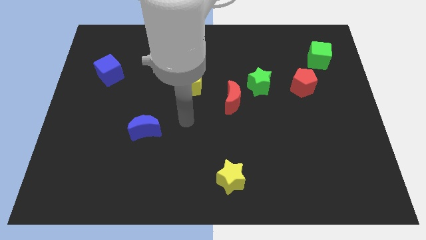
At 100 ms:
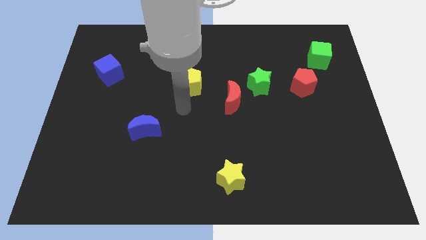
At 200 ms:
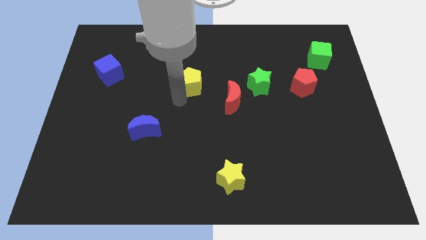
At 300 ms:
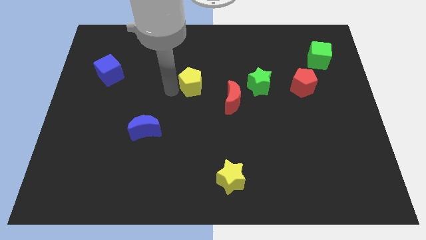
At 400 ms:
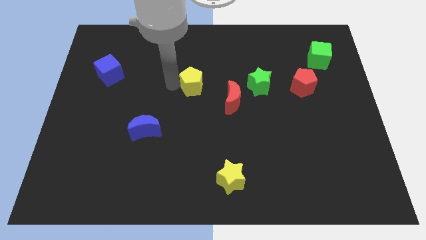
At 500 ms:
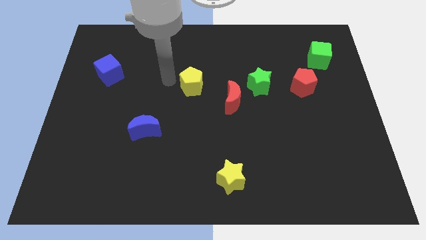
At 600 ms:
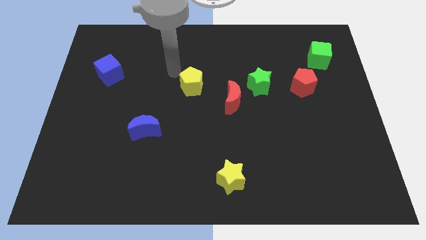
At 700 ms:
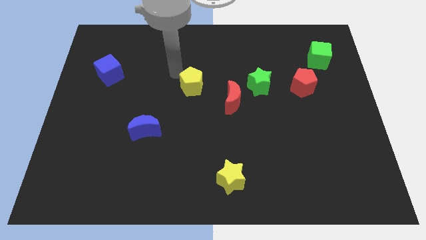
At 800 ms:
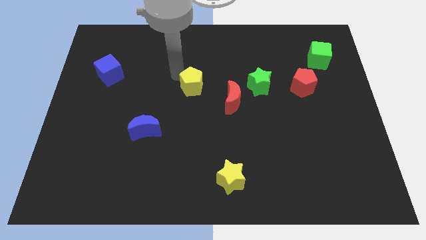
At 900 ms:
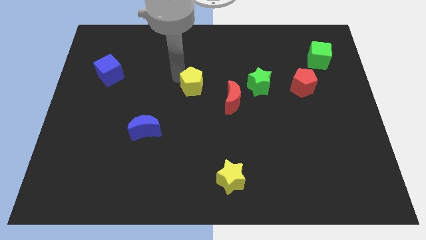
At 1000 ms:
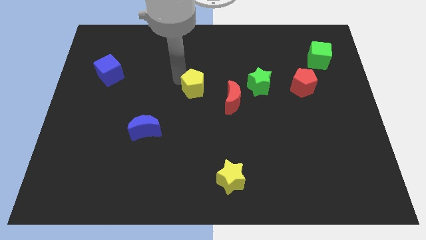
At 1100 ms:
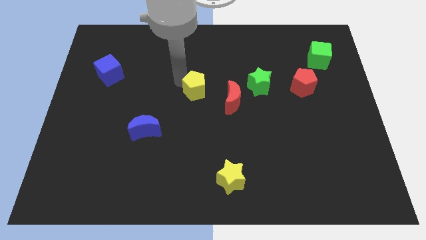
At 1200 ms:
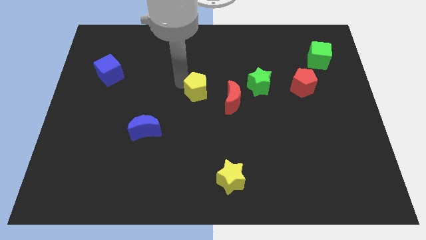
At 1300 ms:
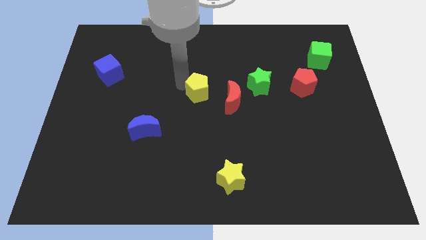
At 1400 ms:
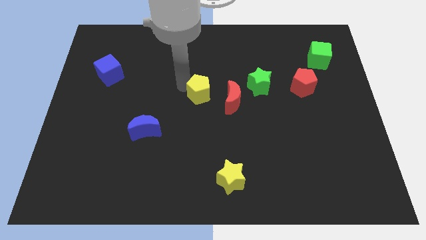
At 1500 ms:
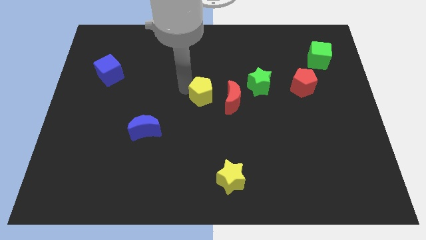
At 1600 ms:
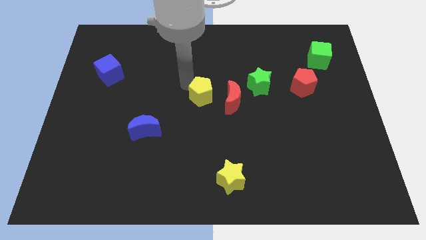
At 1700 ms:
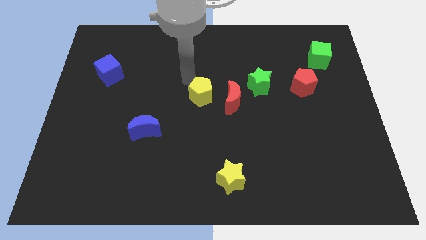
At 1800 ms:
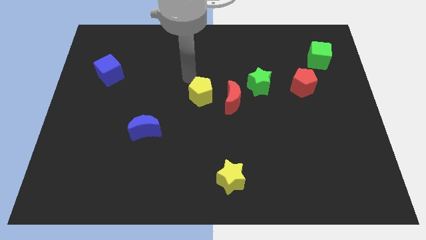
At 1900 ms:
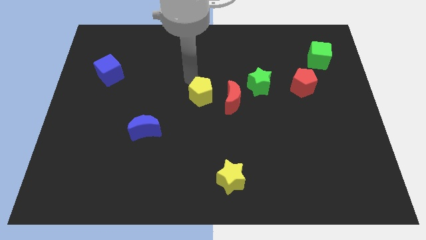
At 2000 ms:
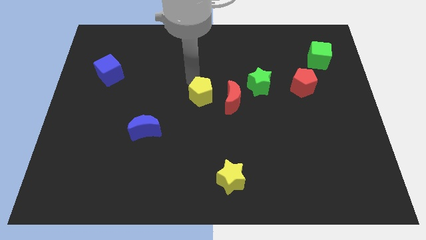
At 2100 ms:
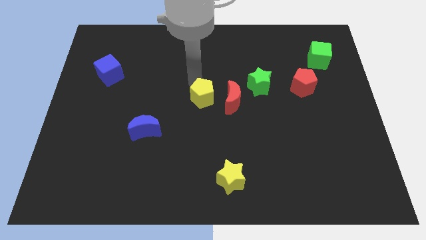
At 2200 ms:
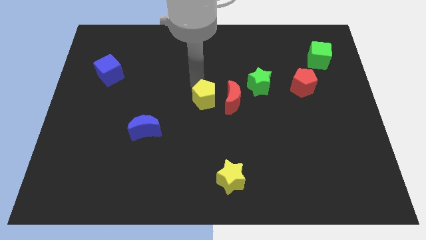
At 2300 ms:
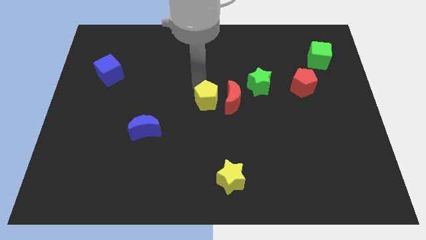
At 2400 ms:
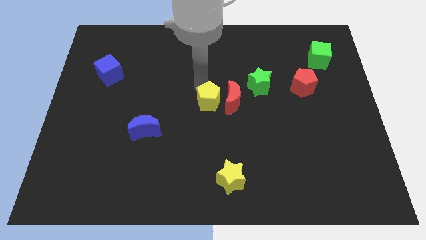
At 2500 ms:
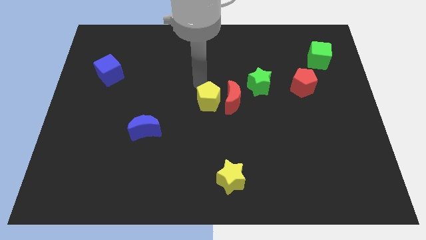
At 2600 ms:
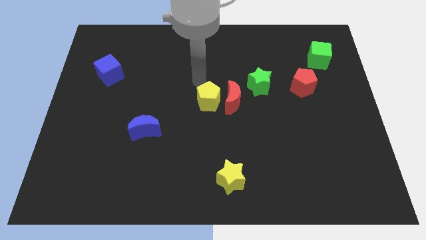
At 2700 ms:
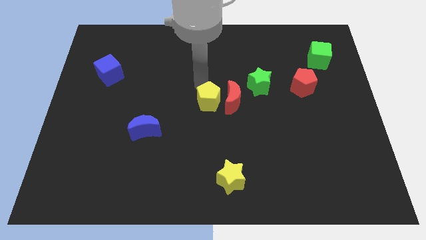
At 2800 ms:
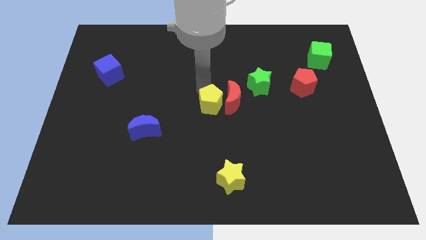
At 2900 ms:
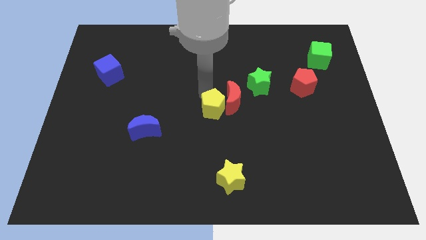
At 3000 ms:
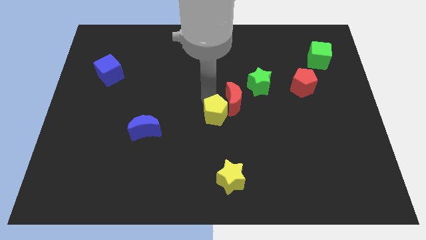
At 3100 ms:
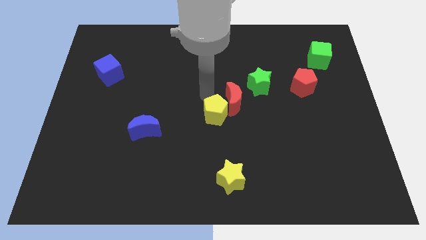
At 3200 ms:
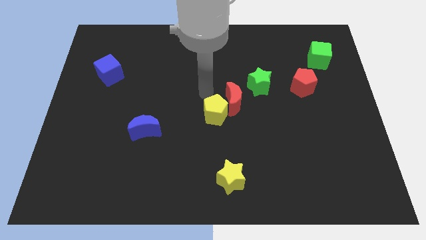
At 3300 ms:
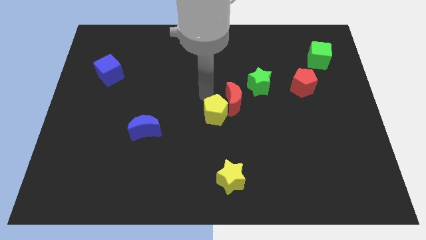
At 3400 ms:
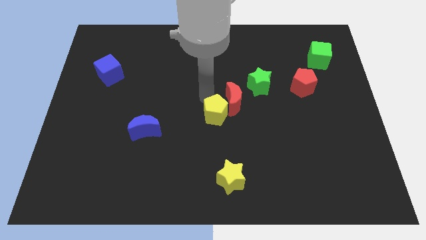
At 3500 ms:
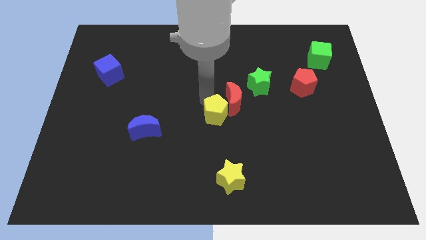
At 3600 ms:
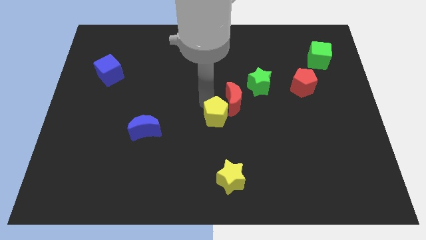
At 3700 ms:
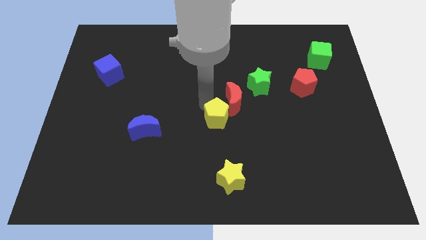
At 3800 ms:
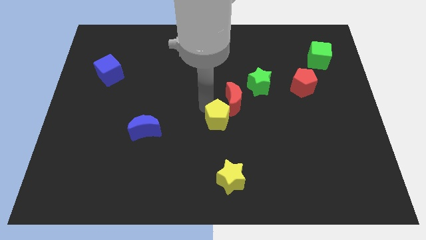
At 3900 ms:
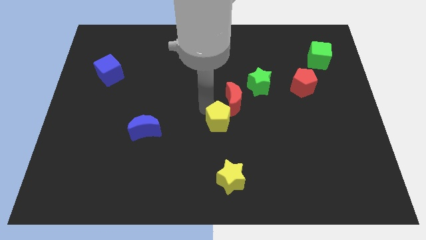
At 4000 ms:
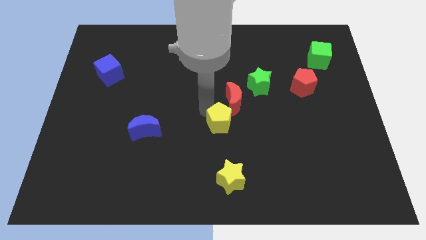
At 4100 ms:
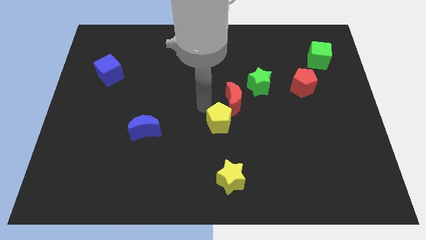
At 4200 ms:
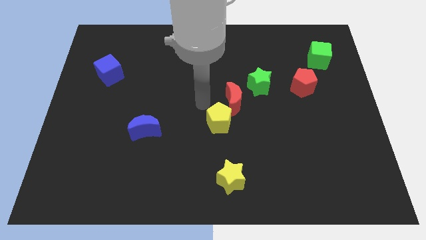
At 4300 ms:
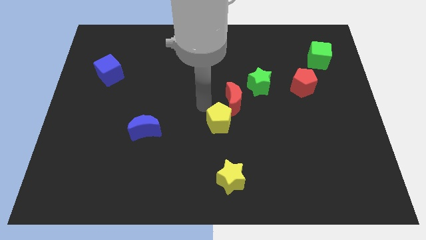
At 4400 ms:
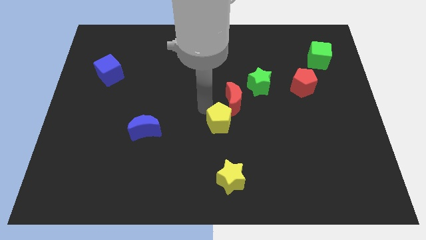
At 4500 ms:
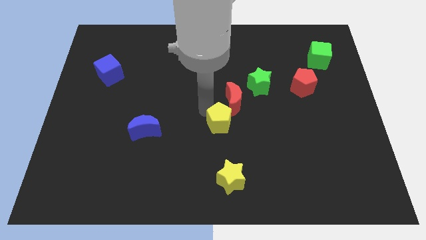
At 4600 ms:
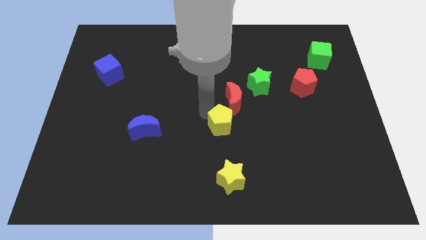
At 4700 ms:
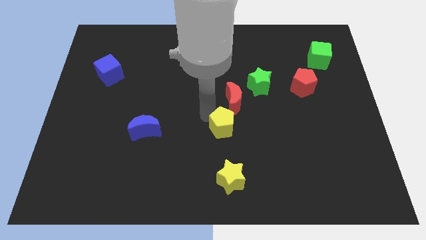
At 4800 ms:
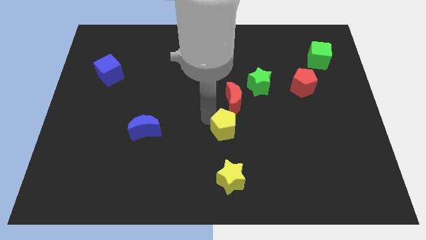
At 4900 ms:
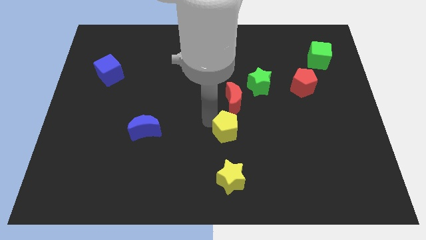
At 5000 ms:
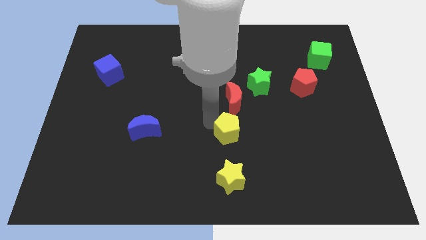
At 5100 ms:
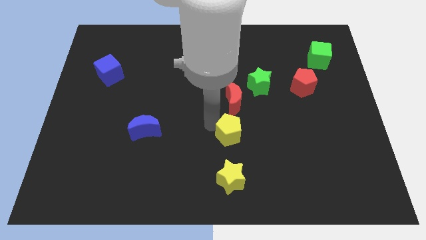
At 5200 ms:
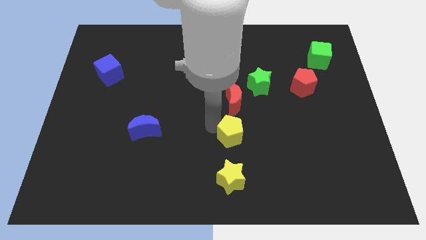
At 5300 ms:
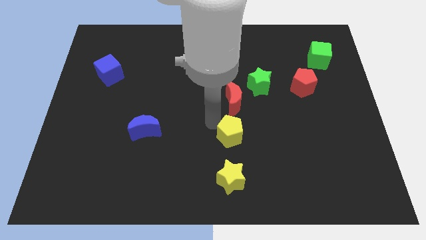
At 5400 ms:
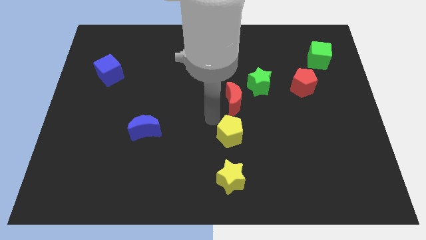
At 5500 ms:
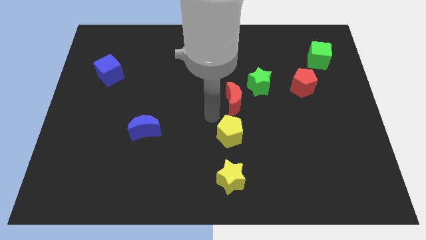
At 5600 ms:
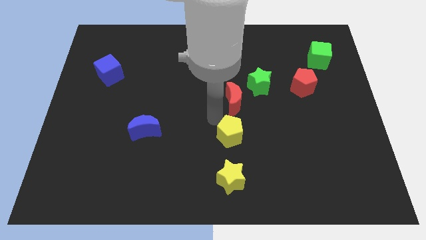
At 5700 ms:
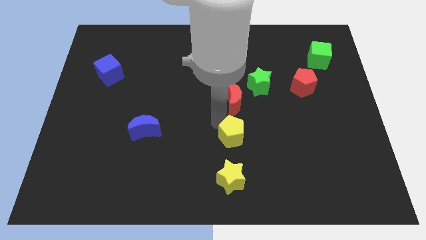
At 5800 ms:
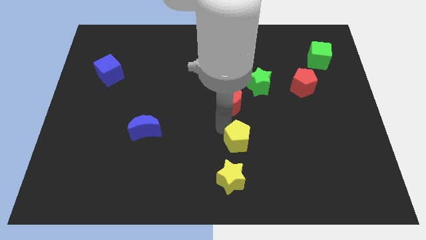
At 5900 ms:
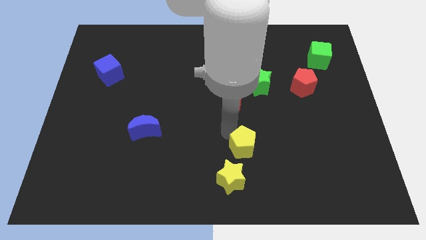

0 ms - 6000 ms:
put the yellow pentagon diagonally up and to the right of the yellow star
